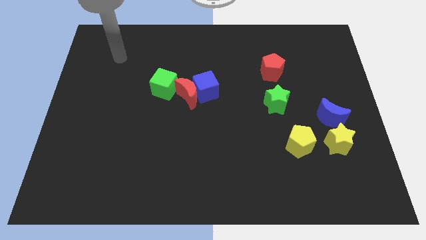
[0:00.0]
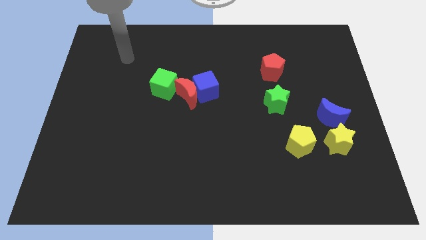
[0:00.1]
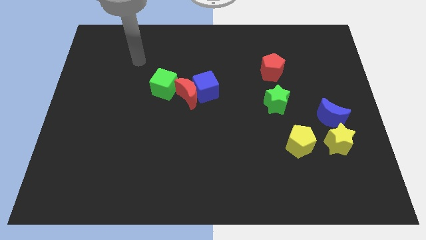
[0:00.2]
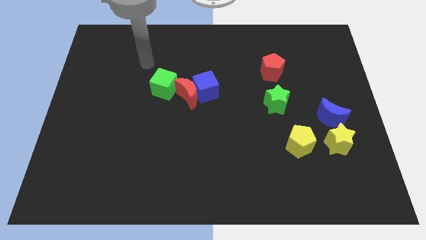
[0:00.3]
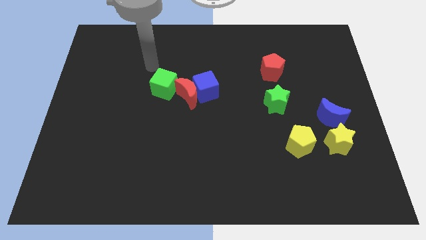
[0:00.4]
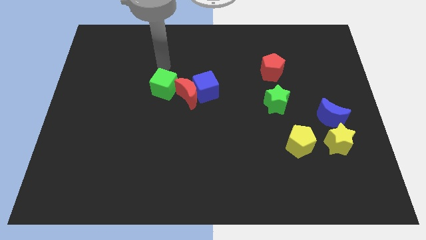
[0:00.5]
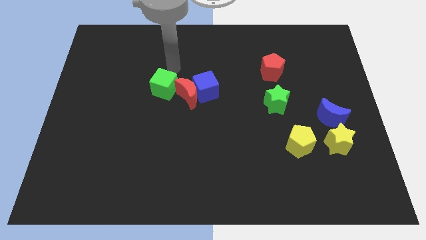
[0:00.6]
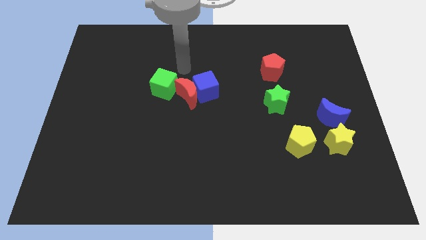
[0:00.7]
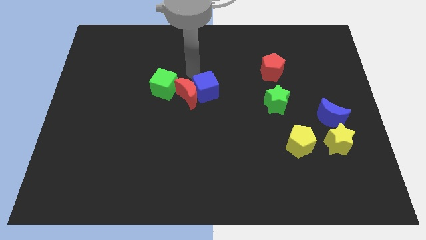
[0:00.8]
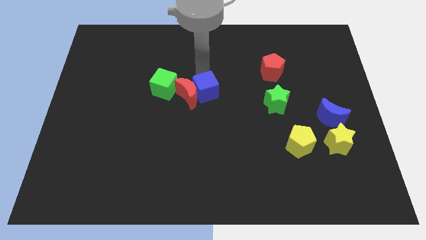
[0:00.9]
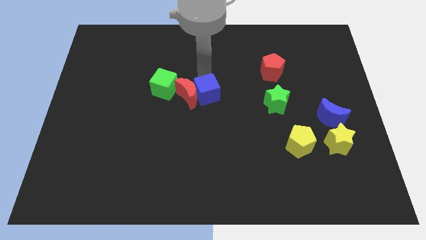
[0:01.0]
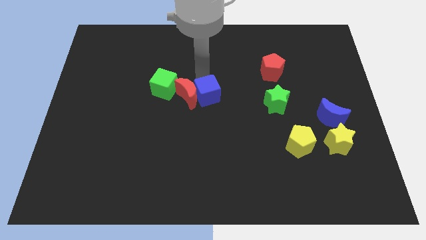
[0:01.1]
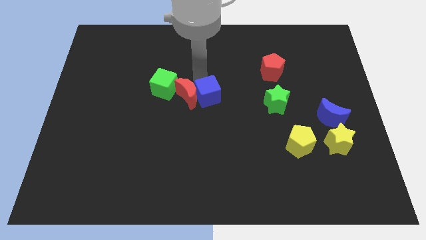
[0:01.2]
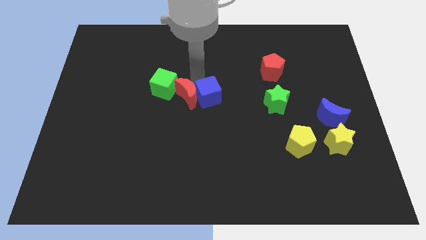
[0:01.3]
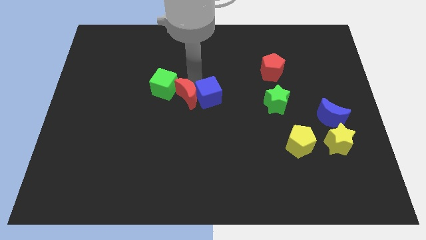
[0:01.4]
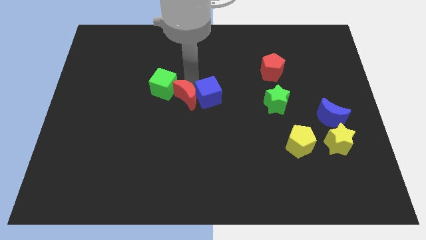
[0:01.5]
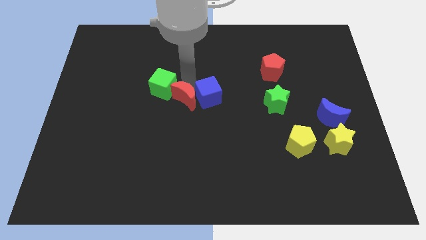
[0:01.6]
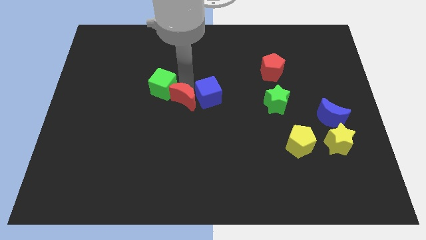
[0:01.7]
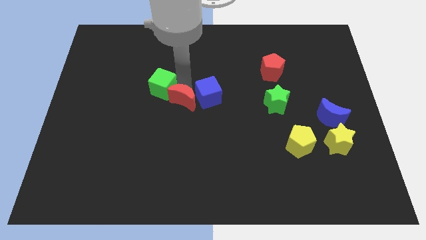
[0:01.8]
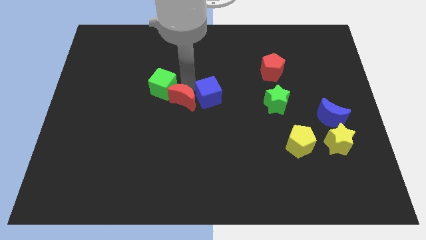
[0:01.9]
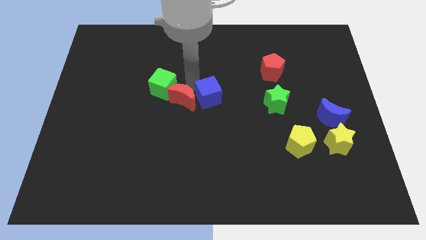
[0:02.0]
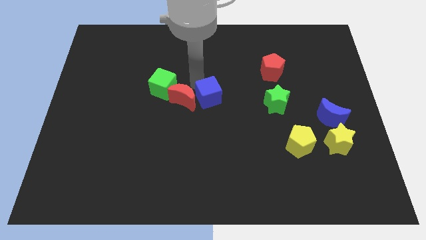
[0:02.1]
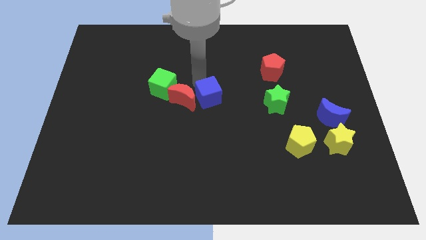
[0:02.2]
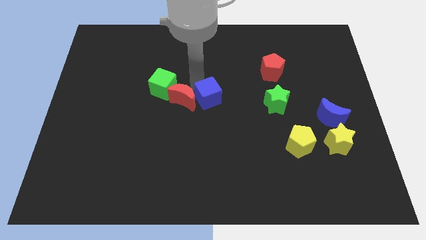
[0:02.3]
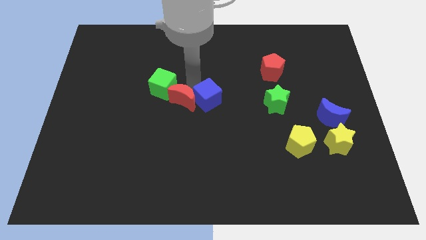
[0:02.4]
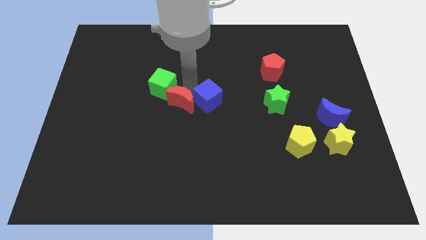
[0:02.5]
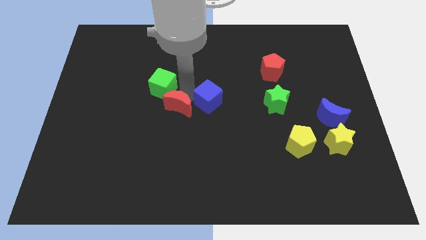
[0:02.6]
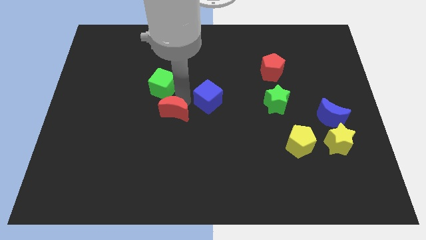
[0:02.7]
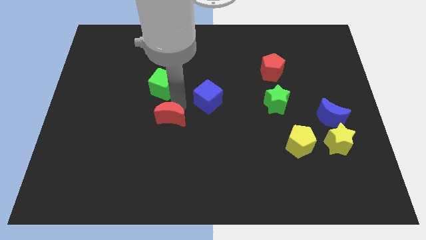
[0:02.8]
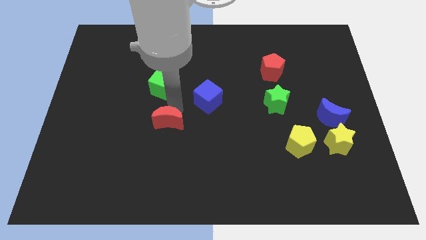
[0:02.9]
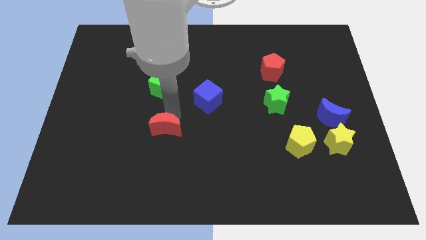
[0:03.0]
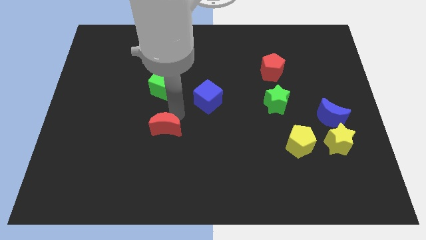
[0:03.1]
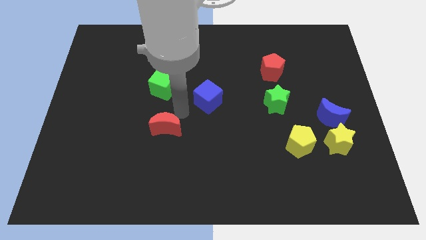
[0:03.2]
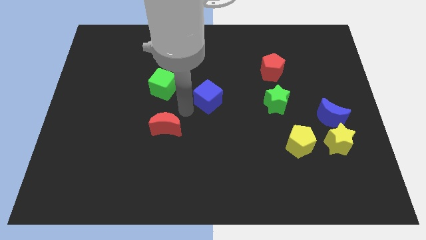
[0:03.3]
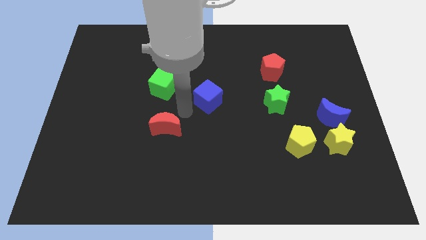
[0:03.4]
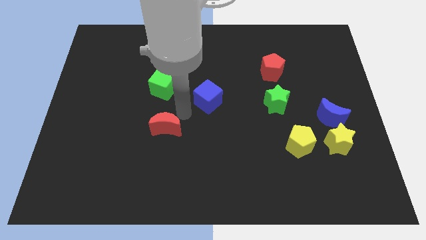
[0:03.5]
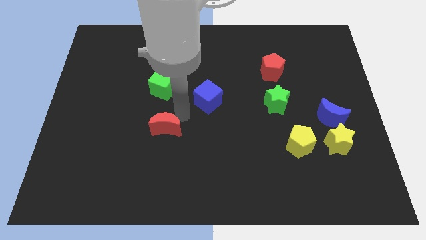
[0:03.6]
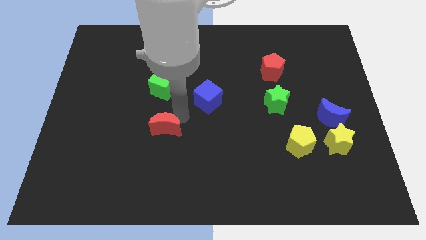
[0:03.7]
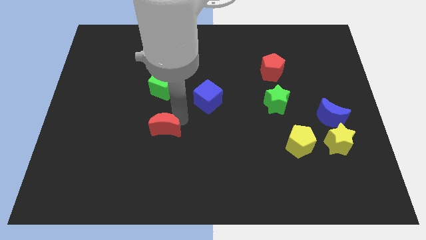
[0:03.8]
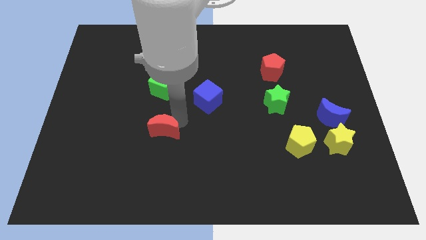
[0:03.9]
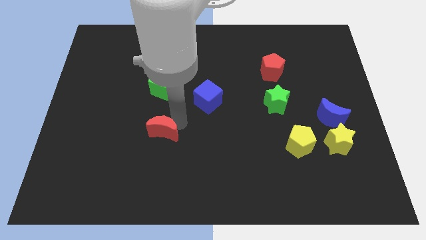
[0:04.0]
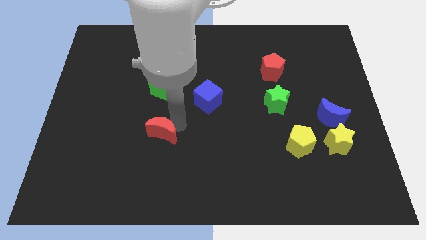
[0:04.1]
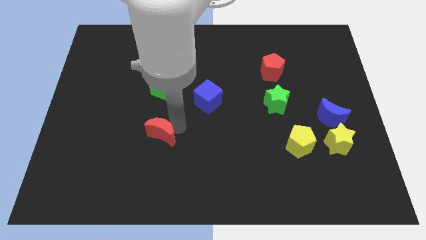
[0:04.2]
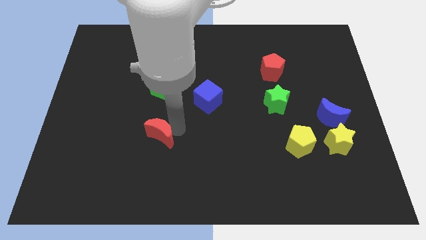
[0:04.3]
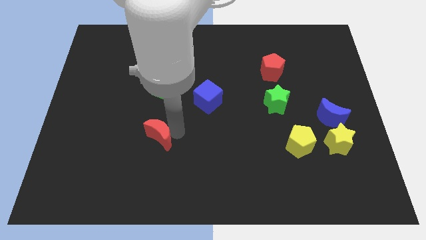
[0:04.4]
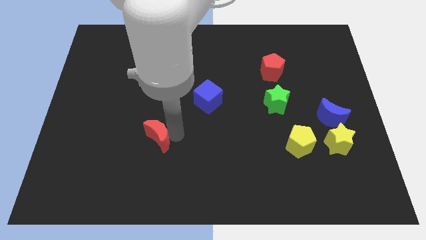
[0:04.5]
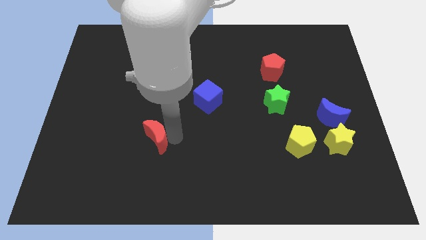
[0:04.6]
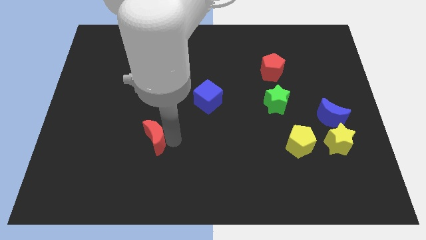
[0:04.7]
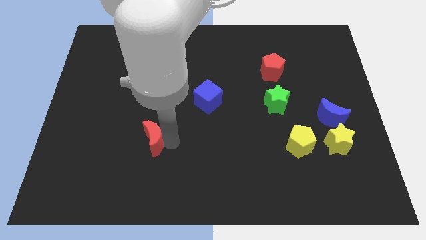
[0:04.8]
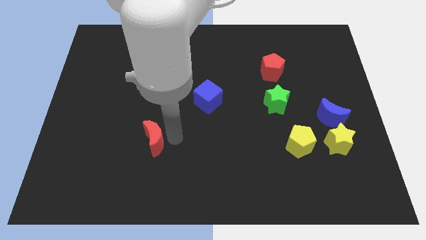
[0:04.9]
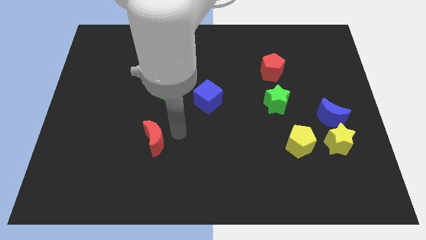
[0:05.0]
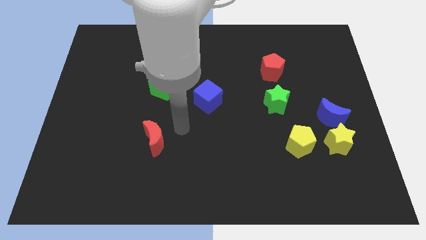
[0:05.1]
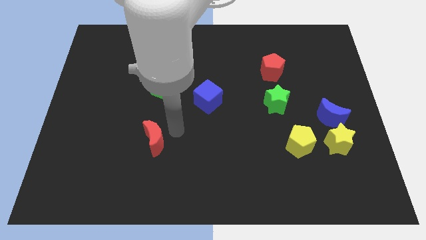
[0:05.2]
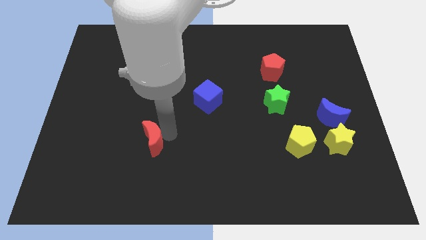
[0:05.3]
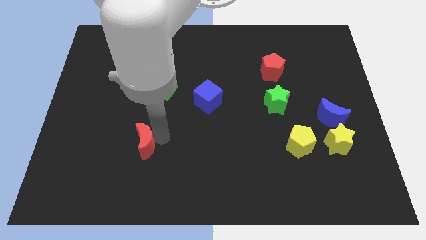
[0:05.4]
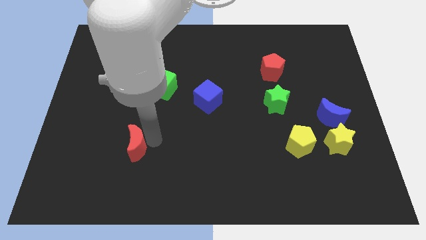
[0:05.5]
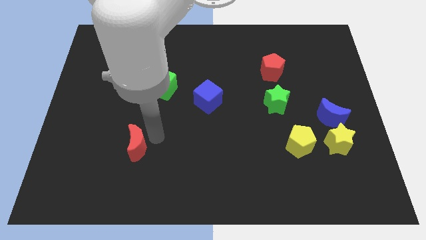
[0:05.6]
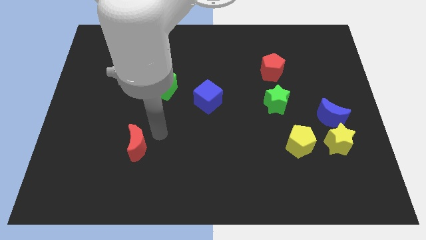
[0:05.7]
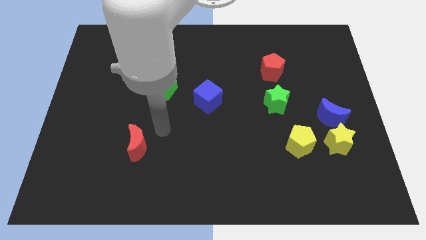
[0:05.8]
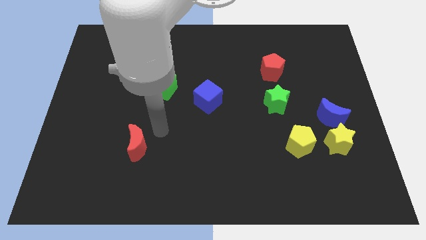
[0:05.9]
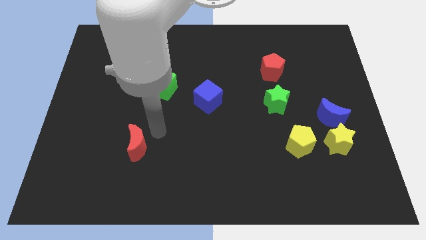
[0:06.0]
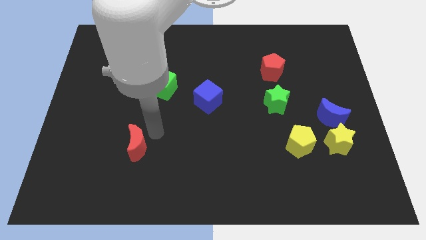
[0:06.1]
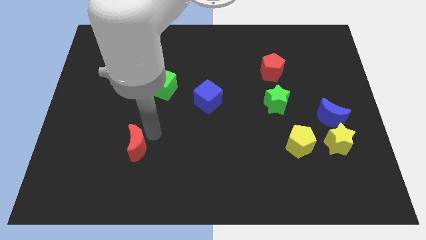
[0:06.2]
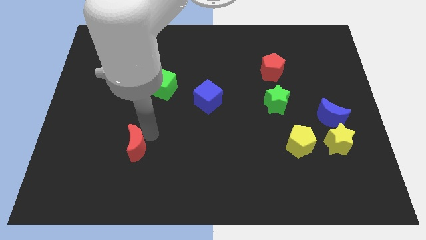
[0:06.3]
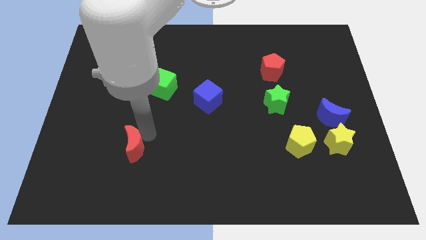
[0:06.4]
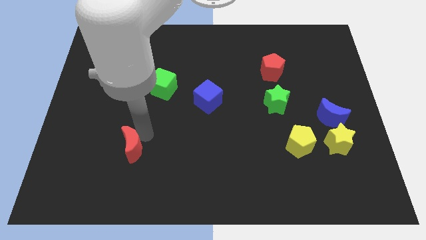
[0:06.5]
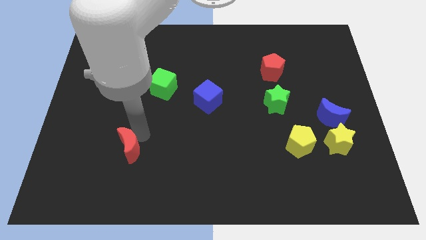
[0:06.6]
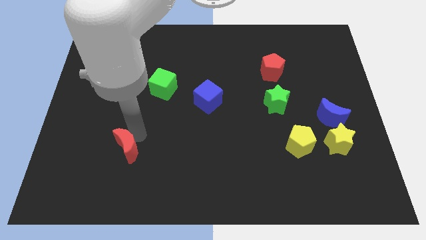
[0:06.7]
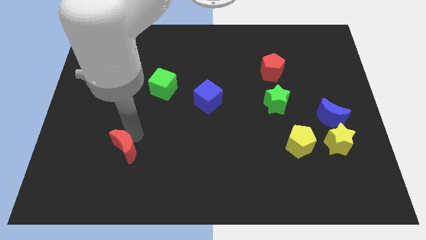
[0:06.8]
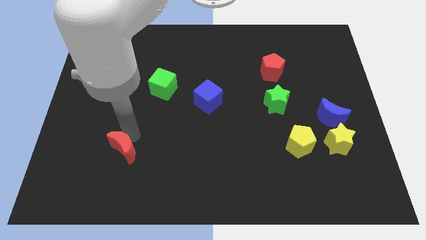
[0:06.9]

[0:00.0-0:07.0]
move the red moon down and to the left

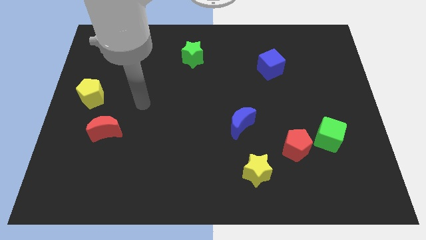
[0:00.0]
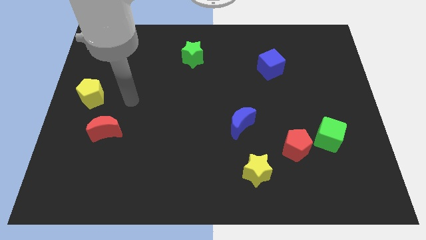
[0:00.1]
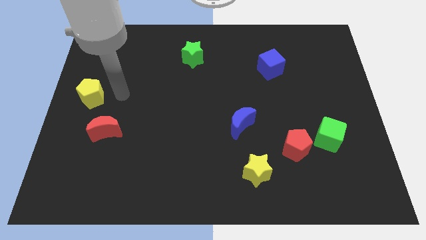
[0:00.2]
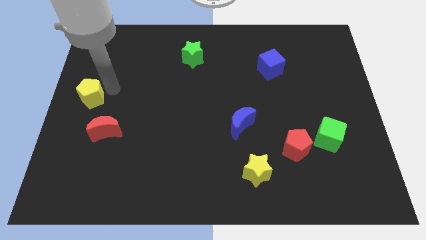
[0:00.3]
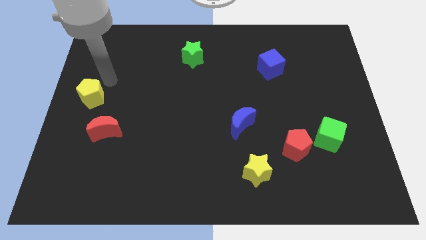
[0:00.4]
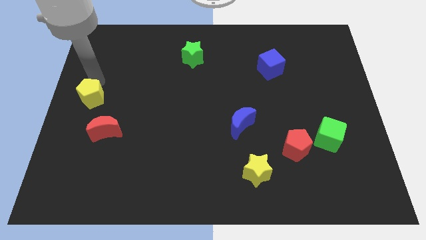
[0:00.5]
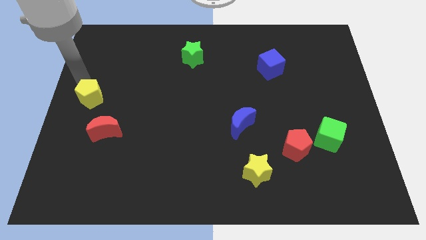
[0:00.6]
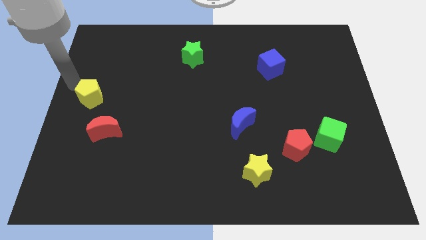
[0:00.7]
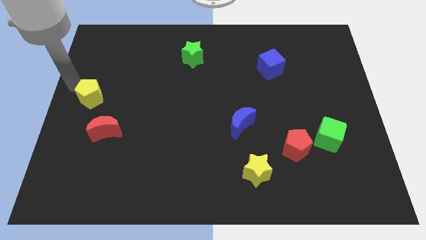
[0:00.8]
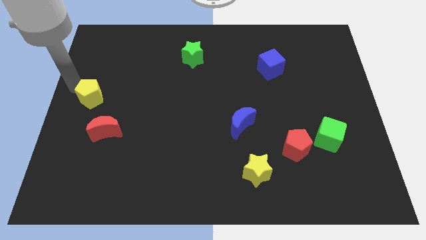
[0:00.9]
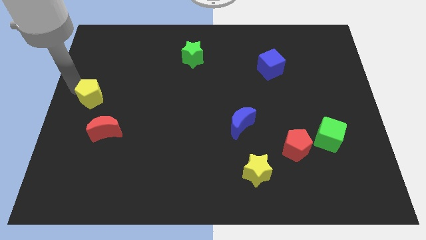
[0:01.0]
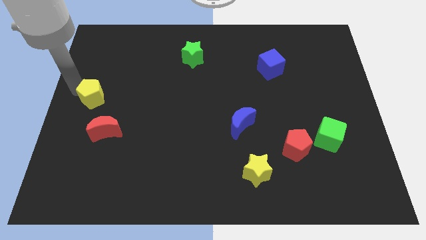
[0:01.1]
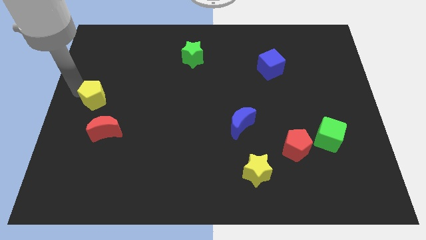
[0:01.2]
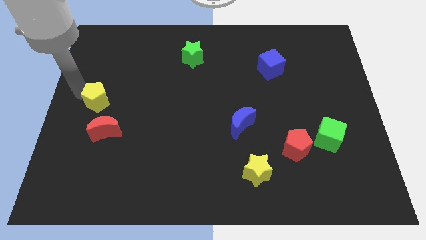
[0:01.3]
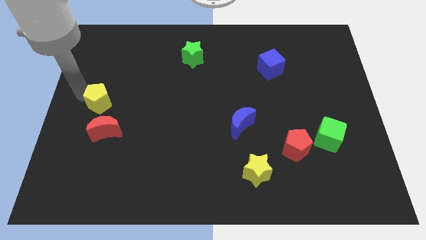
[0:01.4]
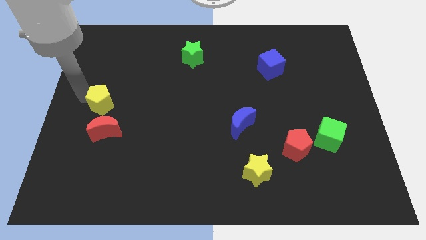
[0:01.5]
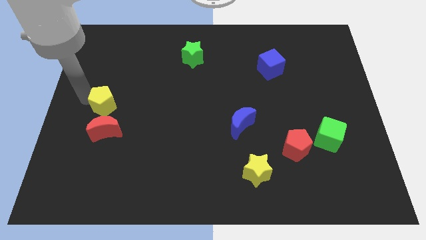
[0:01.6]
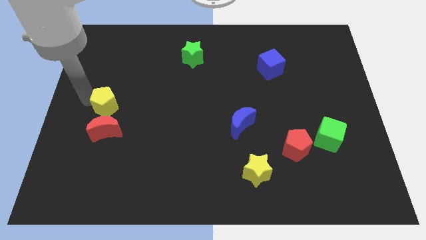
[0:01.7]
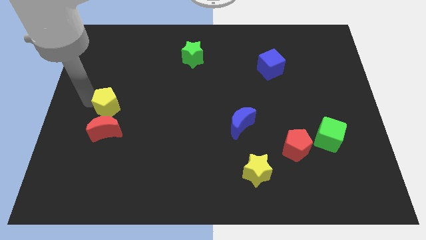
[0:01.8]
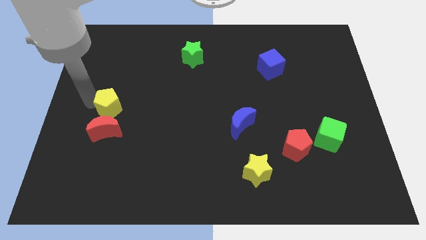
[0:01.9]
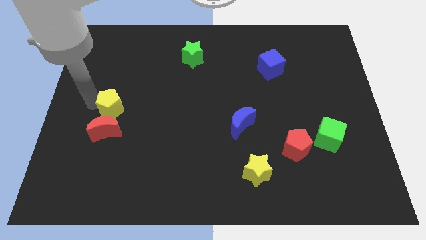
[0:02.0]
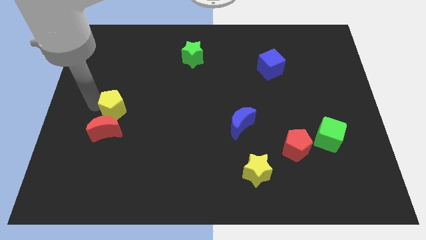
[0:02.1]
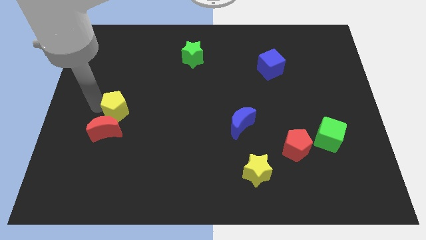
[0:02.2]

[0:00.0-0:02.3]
move the yellow pentagon a little down and then to the right
